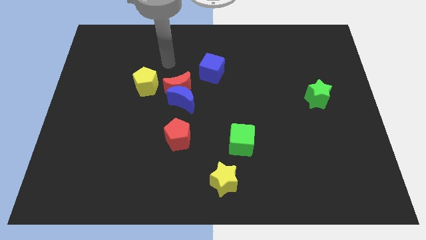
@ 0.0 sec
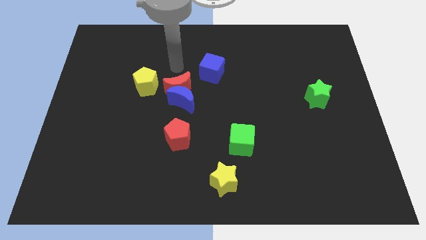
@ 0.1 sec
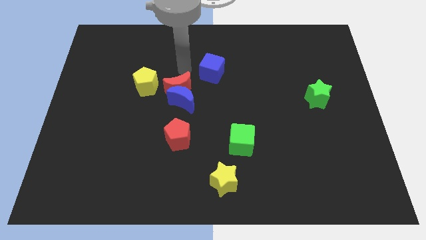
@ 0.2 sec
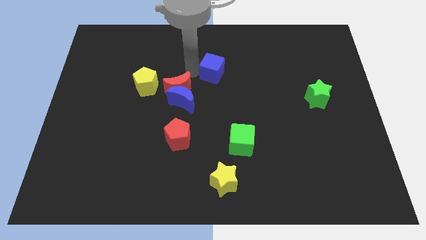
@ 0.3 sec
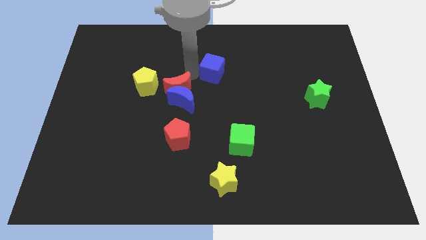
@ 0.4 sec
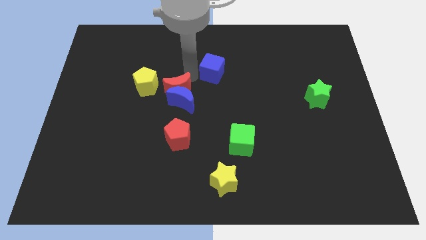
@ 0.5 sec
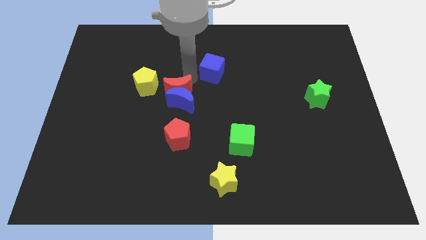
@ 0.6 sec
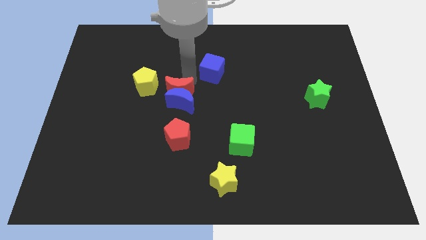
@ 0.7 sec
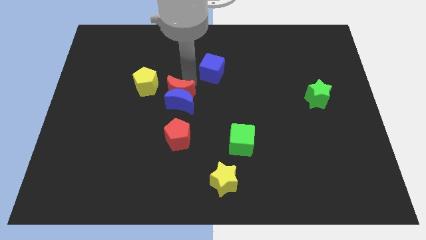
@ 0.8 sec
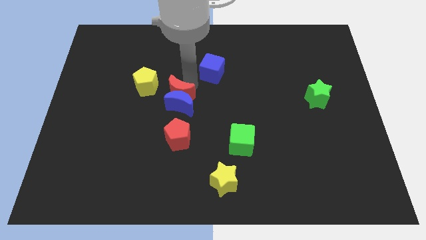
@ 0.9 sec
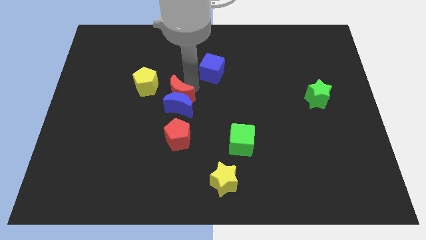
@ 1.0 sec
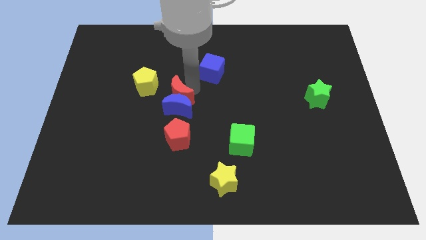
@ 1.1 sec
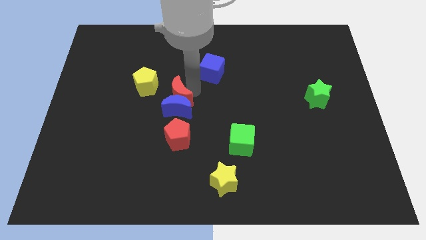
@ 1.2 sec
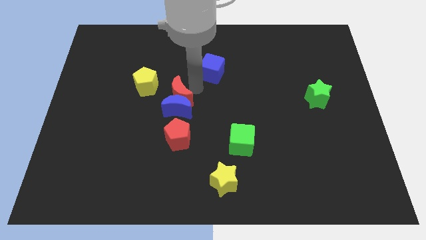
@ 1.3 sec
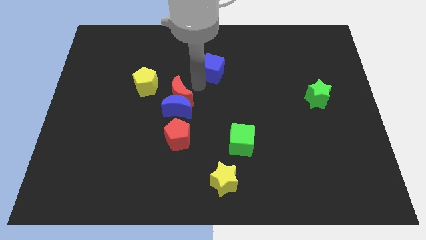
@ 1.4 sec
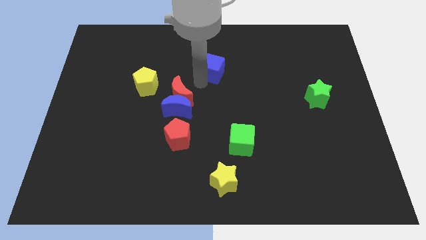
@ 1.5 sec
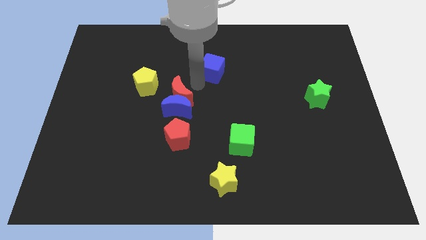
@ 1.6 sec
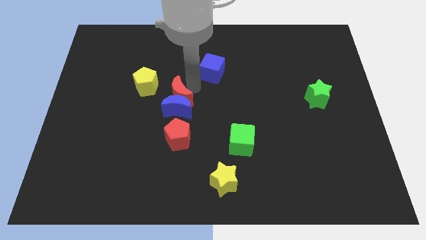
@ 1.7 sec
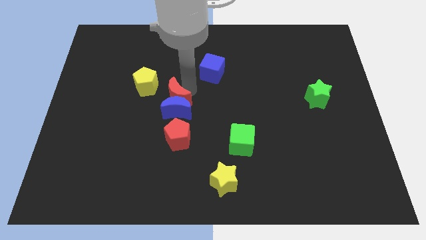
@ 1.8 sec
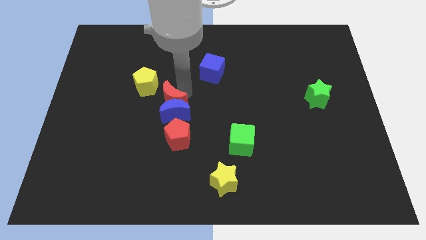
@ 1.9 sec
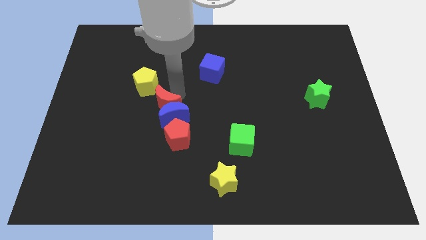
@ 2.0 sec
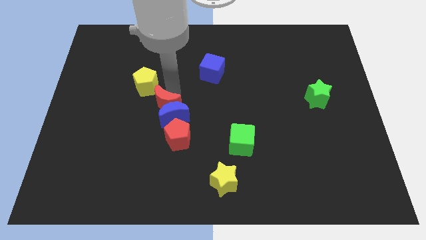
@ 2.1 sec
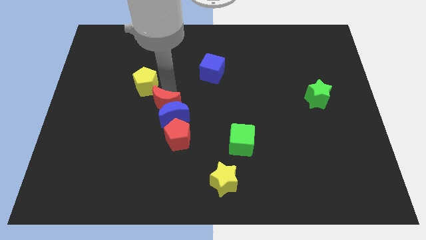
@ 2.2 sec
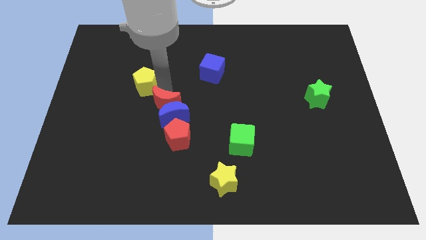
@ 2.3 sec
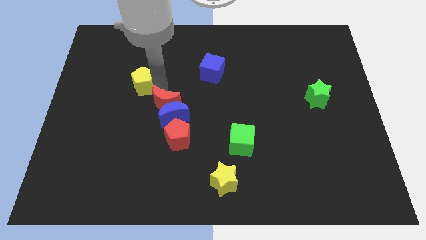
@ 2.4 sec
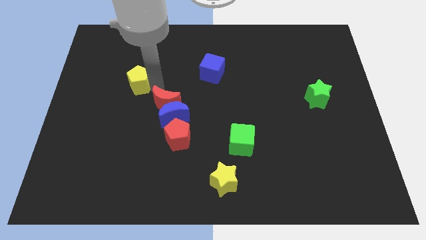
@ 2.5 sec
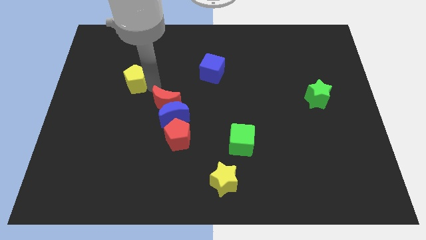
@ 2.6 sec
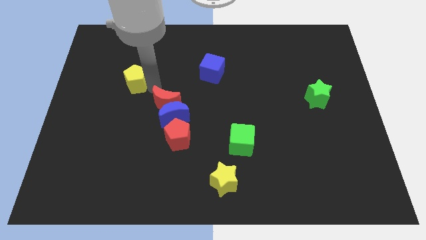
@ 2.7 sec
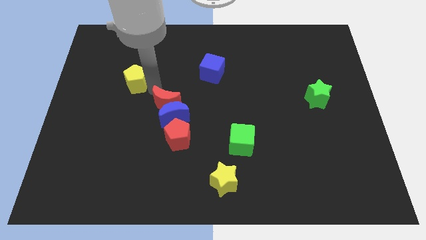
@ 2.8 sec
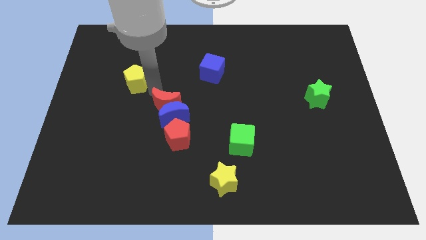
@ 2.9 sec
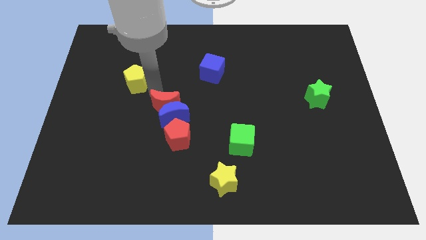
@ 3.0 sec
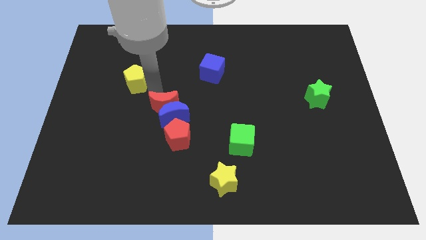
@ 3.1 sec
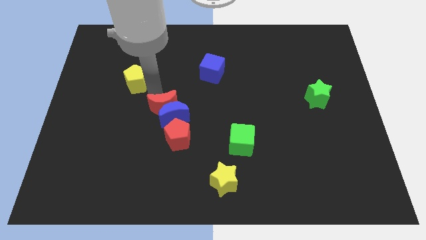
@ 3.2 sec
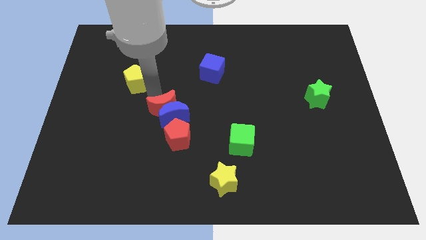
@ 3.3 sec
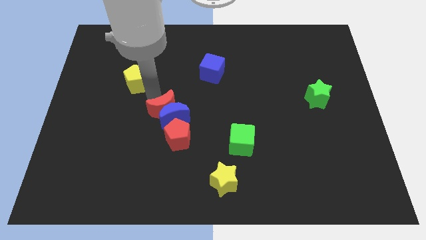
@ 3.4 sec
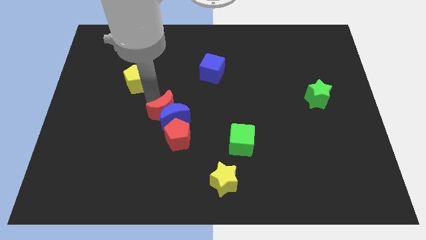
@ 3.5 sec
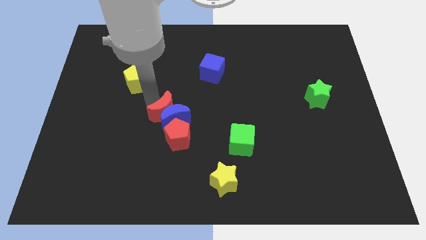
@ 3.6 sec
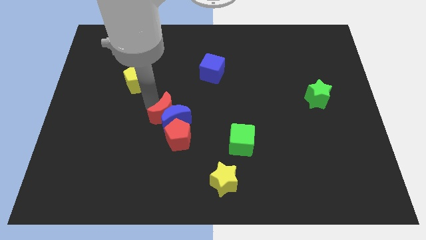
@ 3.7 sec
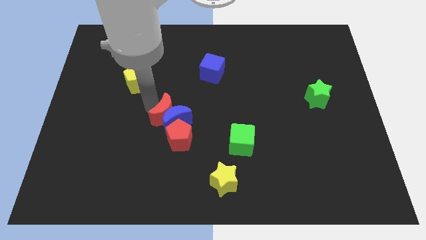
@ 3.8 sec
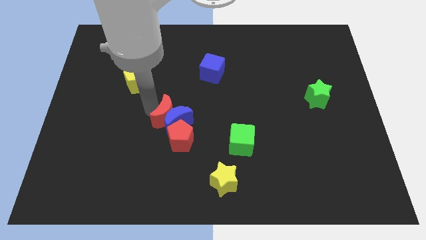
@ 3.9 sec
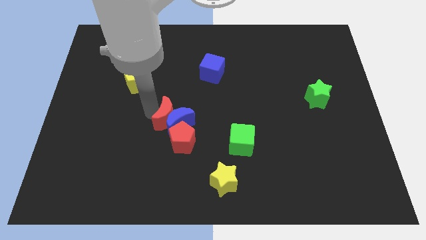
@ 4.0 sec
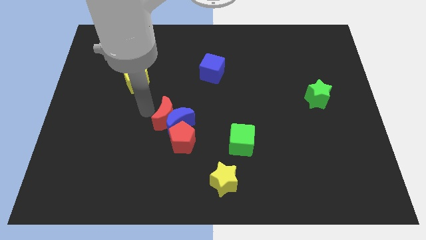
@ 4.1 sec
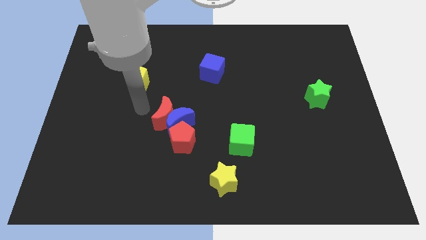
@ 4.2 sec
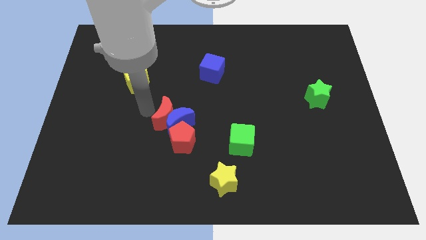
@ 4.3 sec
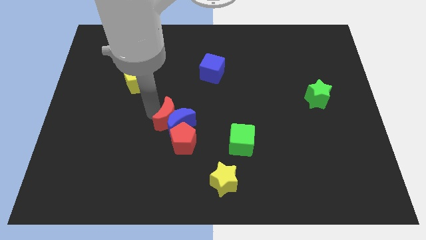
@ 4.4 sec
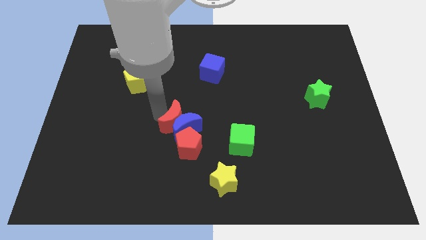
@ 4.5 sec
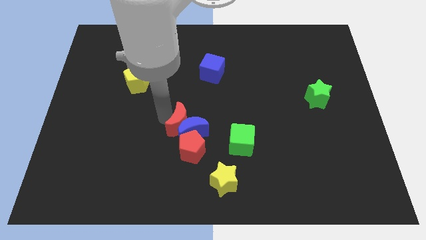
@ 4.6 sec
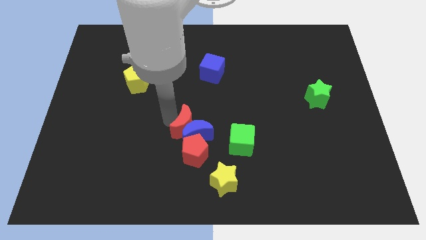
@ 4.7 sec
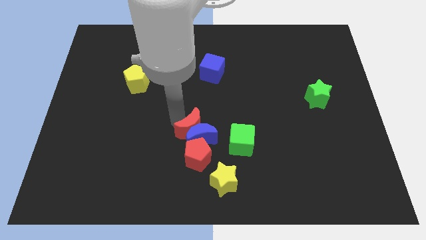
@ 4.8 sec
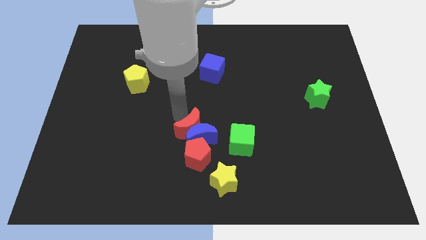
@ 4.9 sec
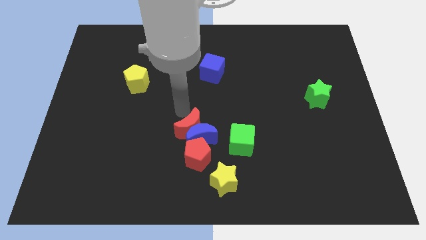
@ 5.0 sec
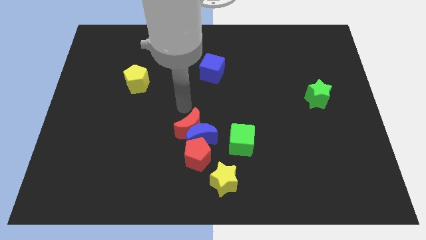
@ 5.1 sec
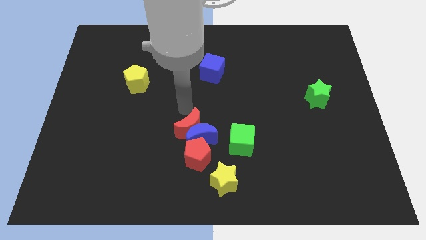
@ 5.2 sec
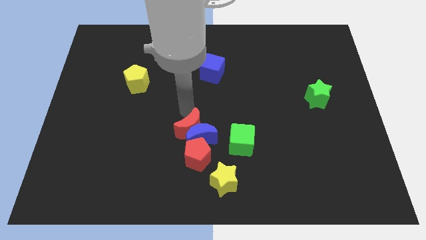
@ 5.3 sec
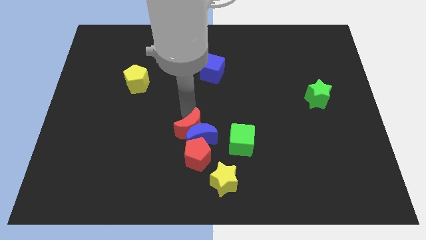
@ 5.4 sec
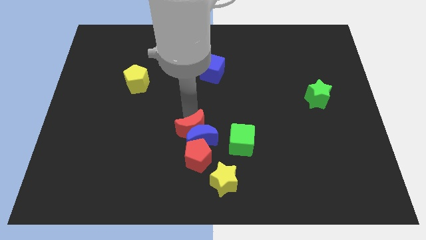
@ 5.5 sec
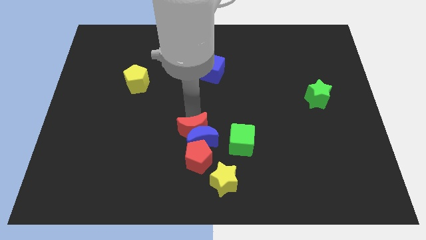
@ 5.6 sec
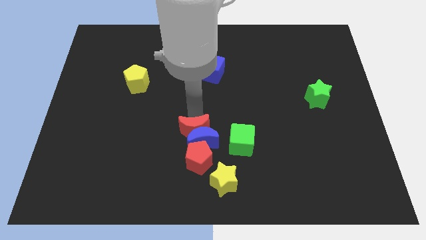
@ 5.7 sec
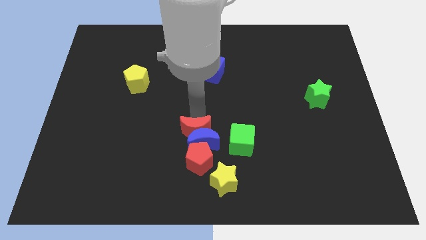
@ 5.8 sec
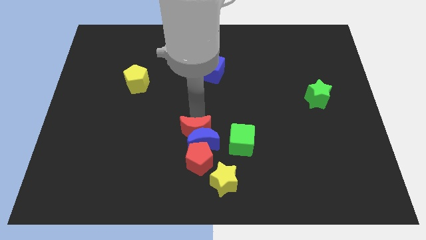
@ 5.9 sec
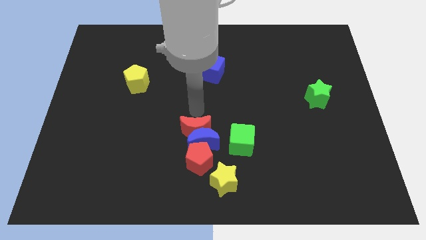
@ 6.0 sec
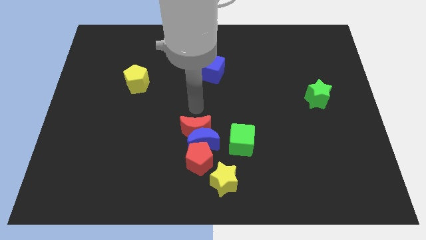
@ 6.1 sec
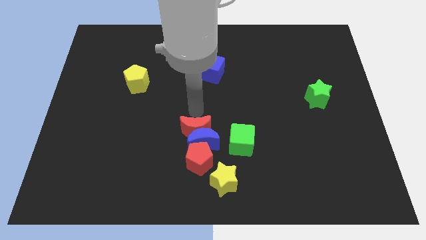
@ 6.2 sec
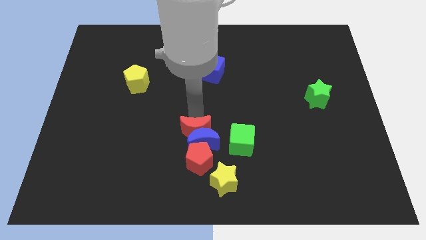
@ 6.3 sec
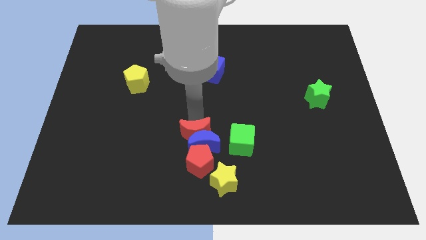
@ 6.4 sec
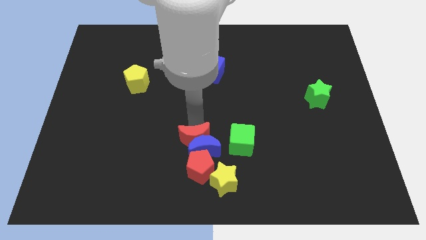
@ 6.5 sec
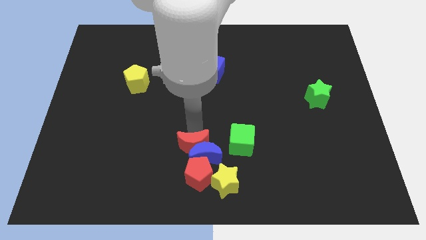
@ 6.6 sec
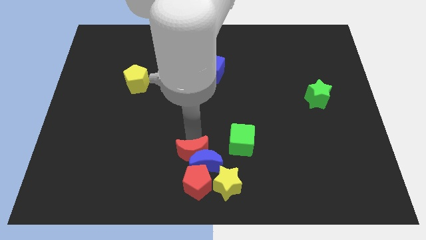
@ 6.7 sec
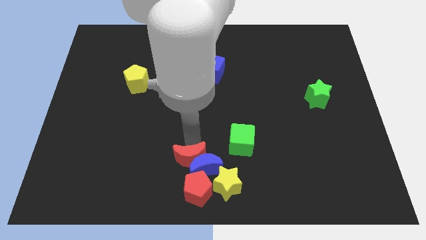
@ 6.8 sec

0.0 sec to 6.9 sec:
move the red moon to the bottom side
